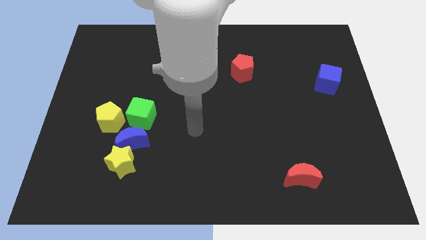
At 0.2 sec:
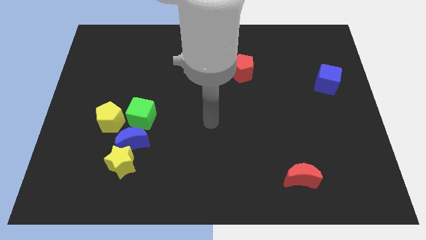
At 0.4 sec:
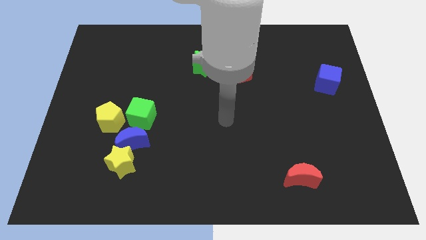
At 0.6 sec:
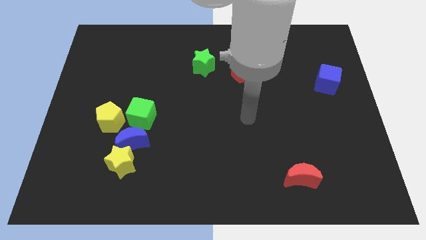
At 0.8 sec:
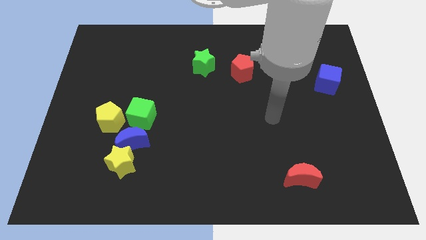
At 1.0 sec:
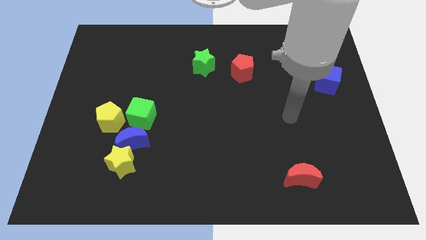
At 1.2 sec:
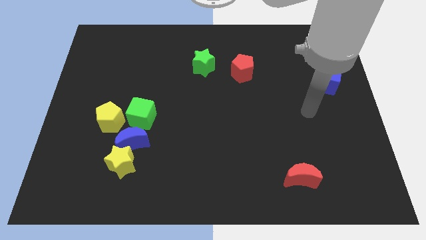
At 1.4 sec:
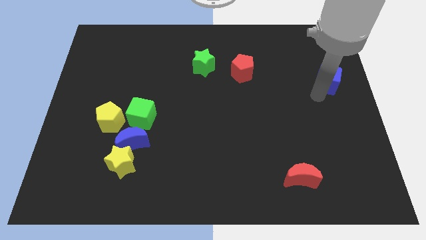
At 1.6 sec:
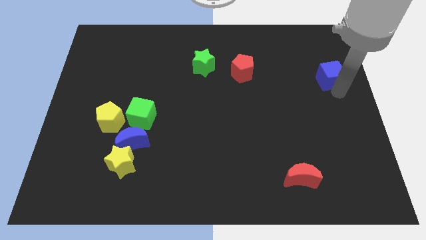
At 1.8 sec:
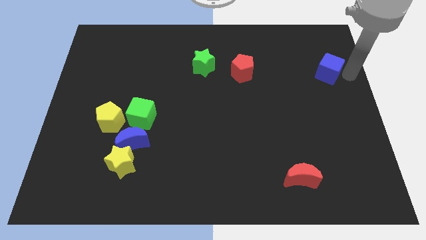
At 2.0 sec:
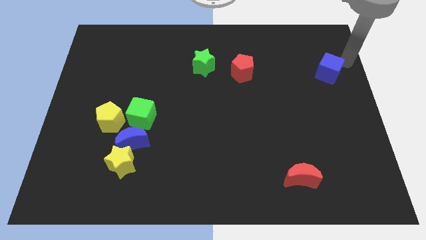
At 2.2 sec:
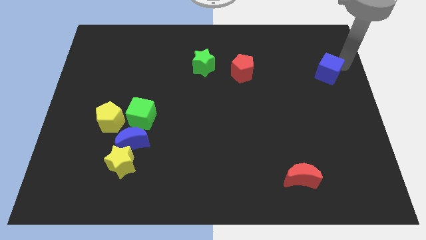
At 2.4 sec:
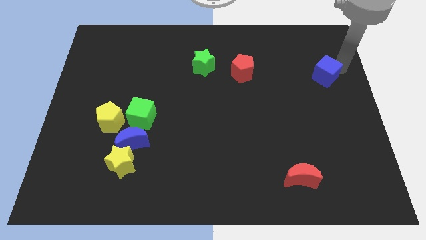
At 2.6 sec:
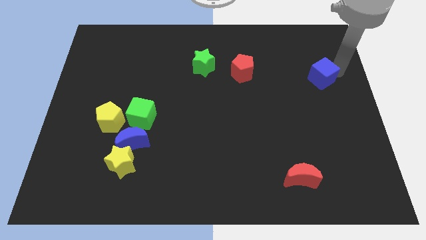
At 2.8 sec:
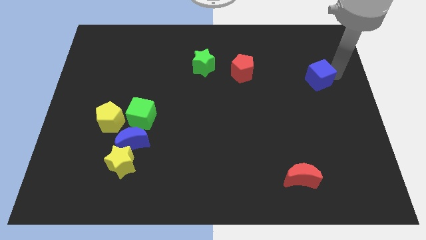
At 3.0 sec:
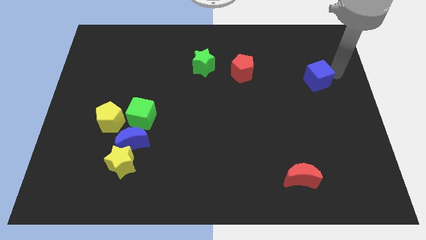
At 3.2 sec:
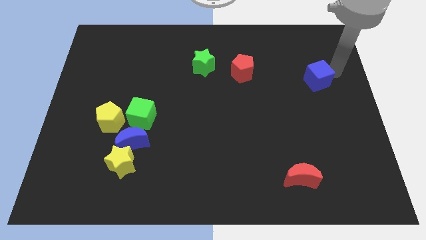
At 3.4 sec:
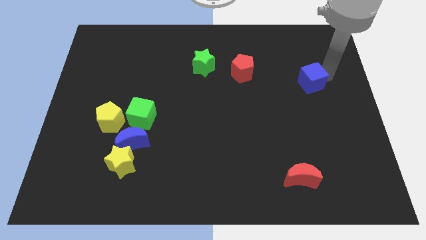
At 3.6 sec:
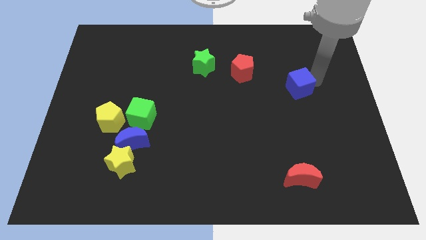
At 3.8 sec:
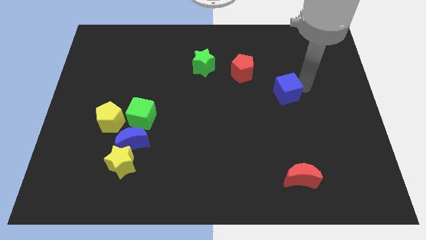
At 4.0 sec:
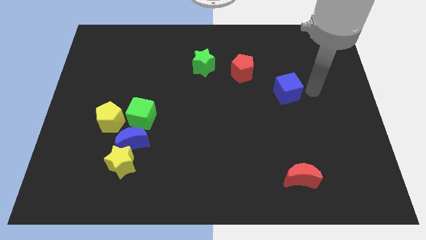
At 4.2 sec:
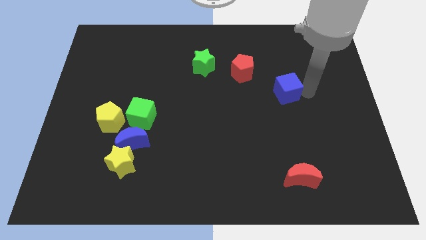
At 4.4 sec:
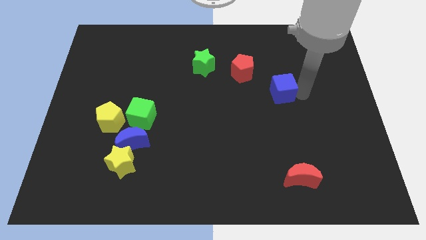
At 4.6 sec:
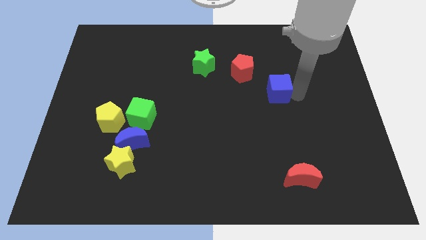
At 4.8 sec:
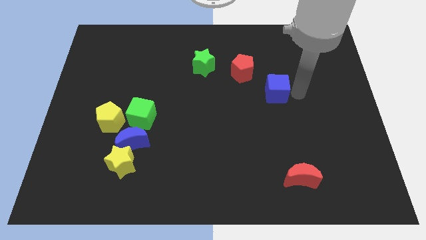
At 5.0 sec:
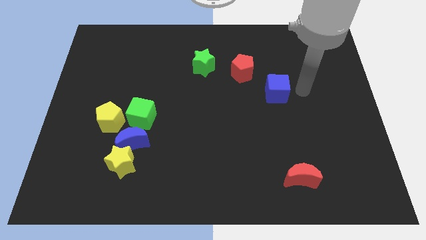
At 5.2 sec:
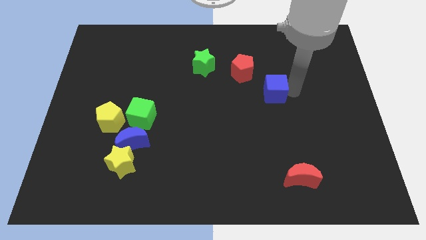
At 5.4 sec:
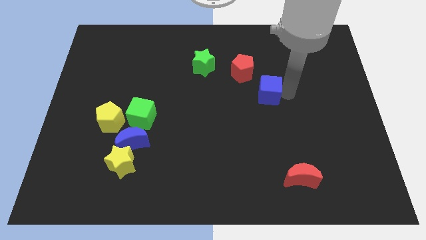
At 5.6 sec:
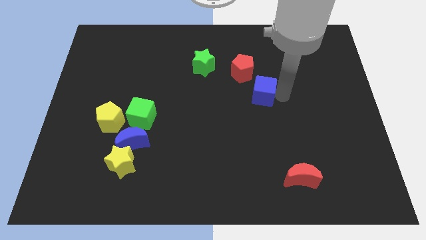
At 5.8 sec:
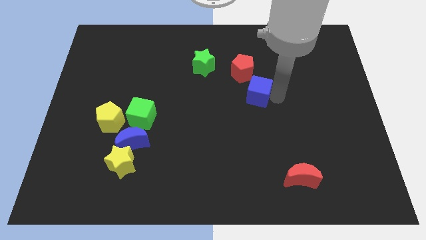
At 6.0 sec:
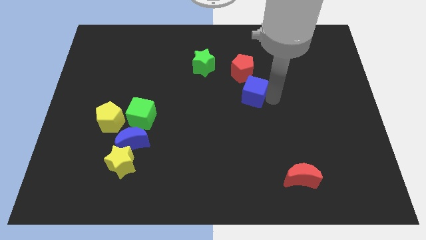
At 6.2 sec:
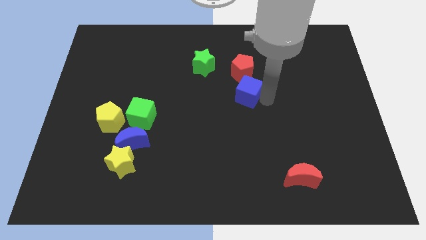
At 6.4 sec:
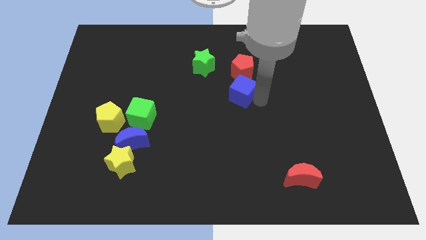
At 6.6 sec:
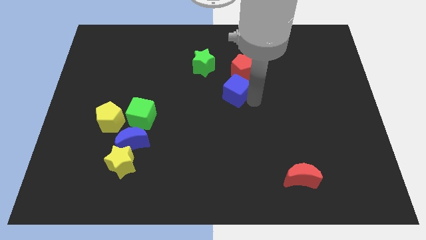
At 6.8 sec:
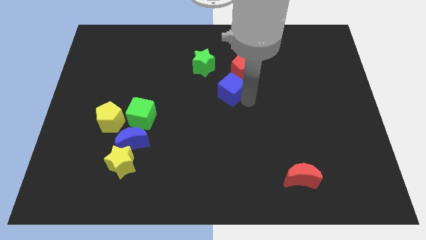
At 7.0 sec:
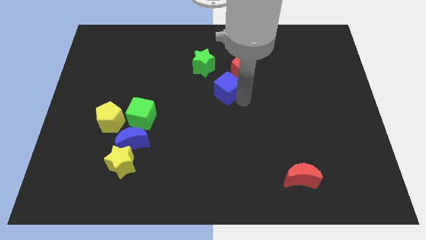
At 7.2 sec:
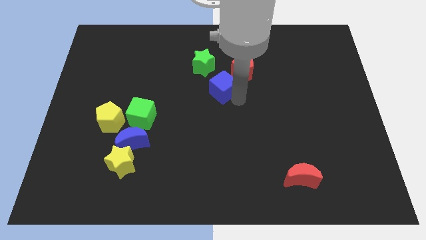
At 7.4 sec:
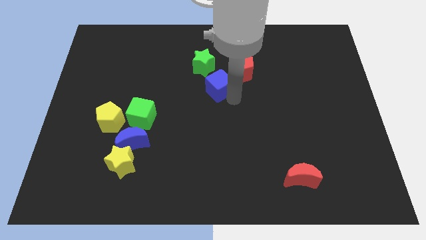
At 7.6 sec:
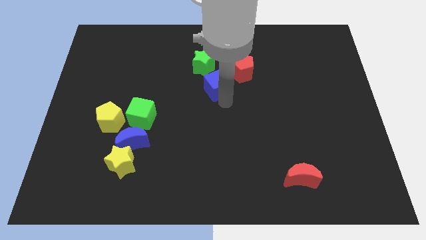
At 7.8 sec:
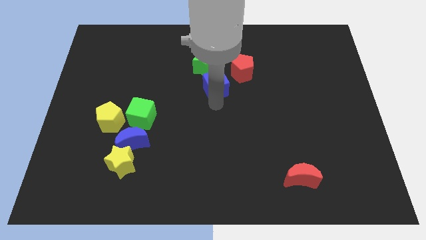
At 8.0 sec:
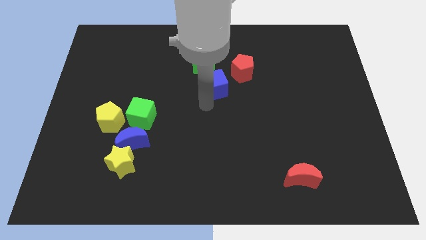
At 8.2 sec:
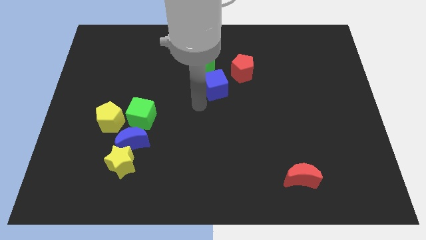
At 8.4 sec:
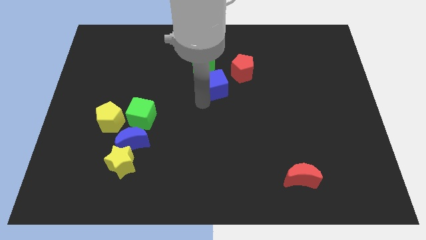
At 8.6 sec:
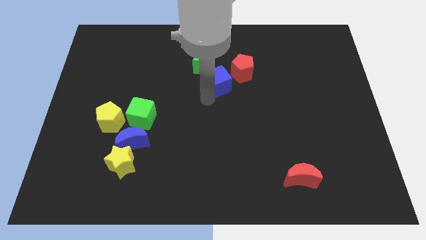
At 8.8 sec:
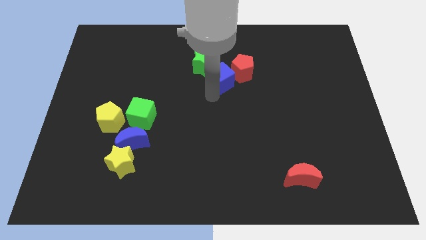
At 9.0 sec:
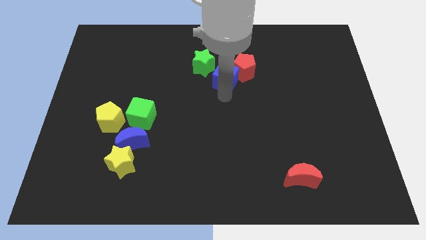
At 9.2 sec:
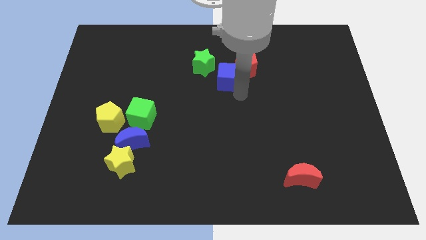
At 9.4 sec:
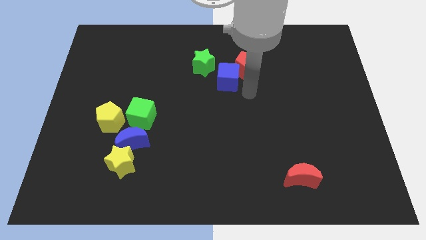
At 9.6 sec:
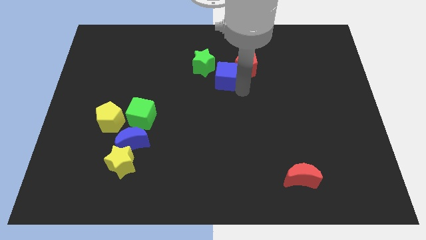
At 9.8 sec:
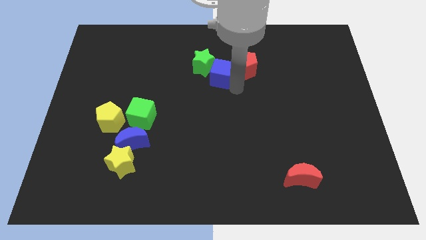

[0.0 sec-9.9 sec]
push the blue cube close to the green star
